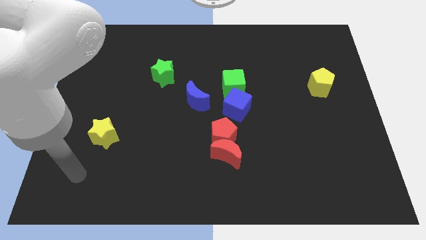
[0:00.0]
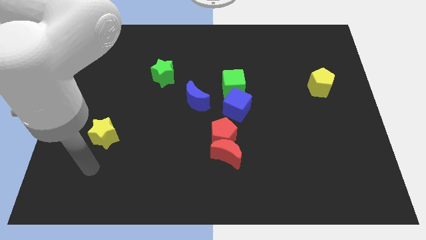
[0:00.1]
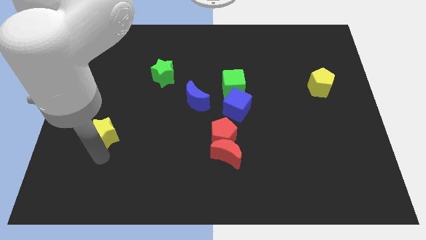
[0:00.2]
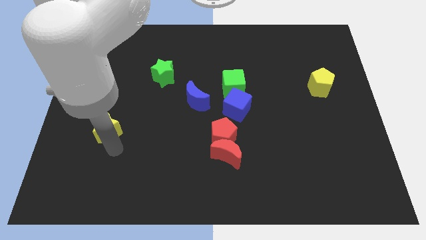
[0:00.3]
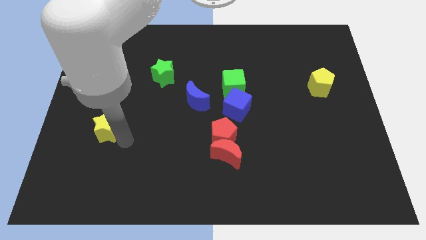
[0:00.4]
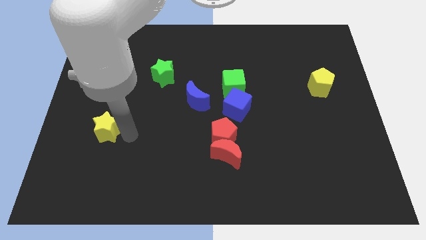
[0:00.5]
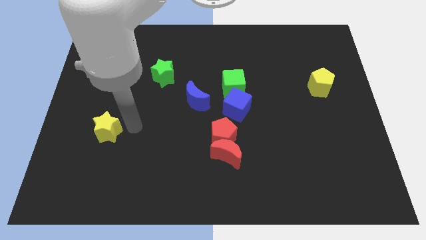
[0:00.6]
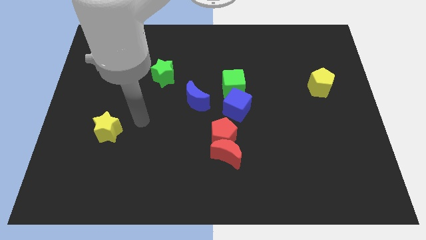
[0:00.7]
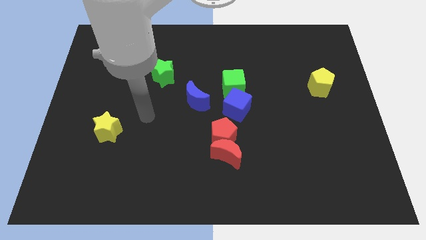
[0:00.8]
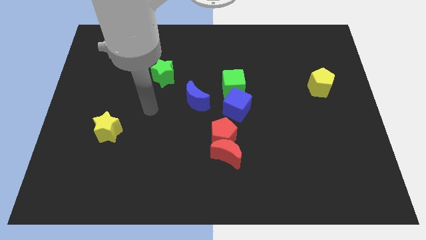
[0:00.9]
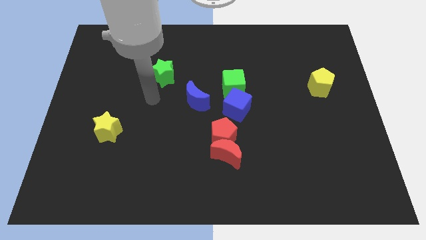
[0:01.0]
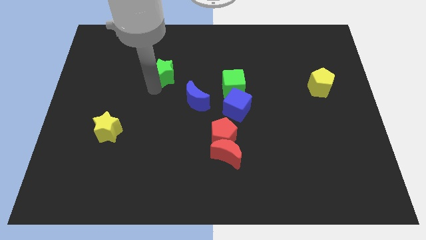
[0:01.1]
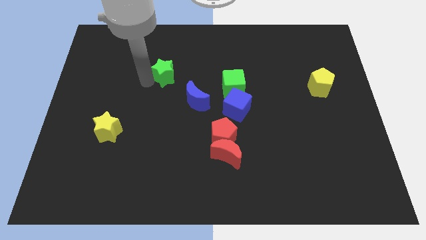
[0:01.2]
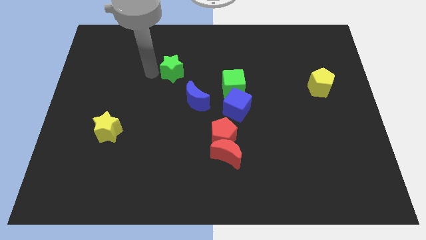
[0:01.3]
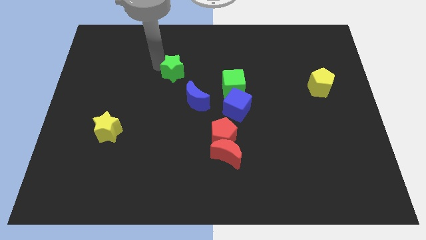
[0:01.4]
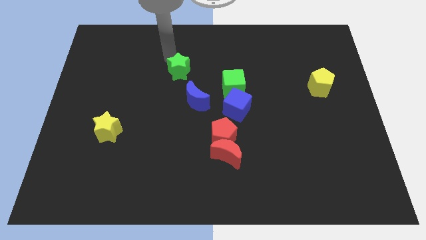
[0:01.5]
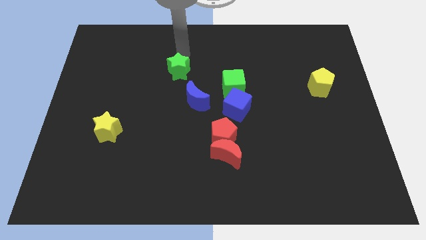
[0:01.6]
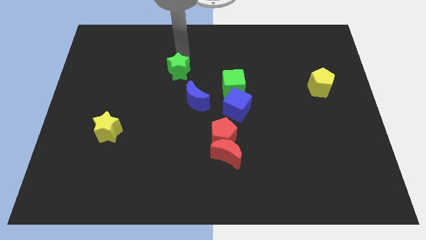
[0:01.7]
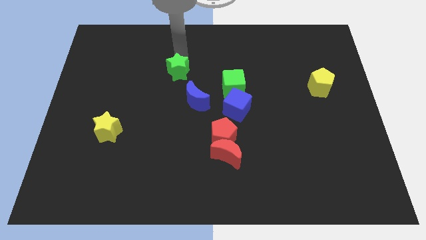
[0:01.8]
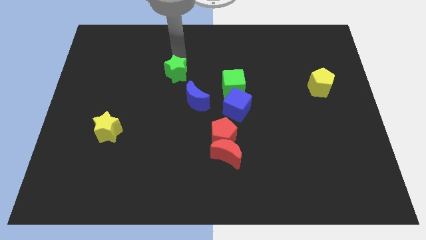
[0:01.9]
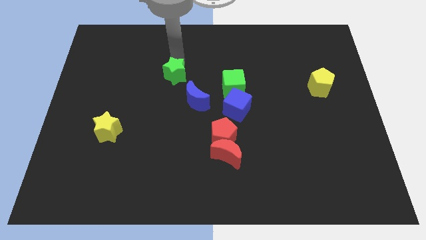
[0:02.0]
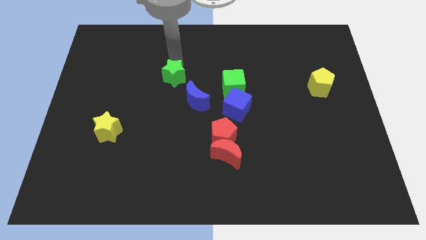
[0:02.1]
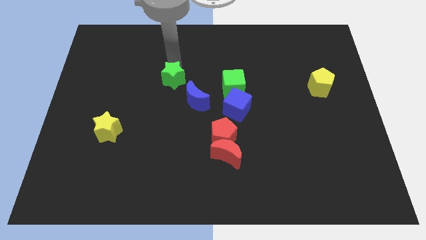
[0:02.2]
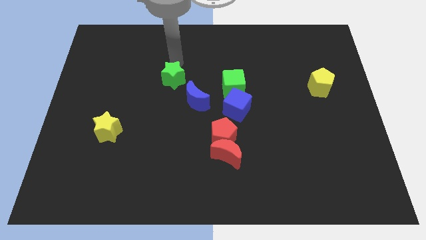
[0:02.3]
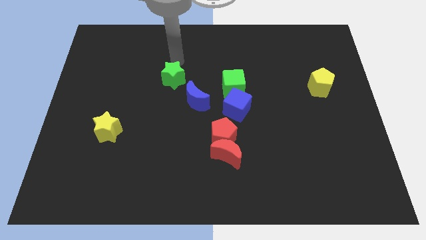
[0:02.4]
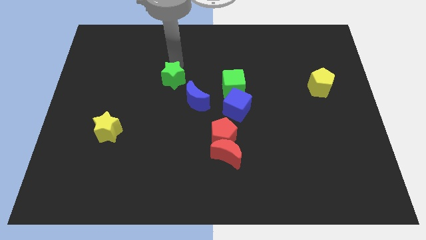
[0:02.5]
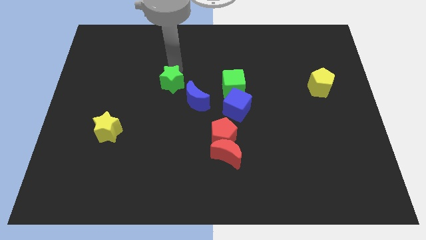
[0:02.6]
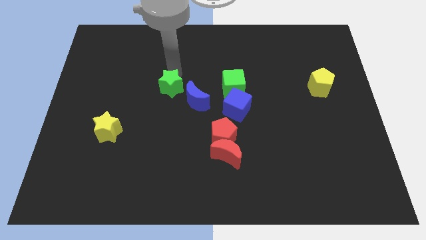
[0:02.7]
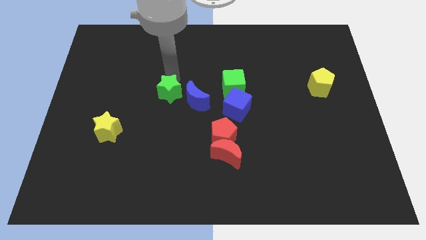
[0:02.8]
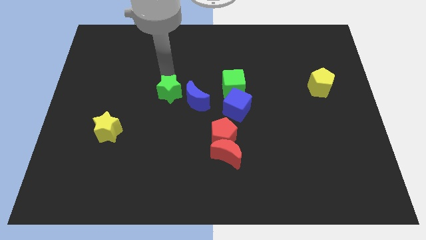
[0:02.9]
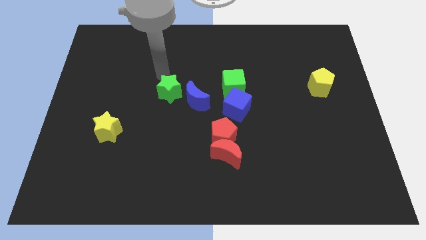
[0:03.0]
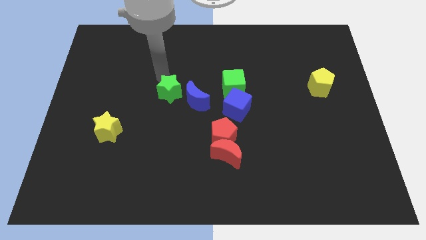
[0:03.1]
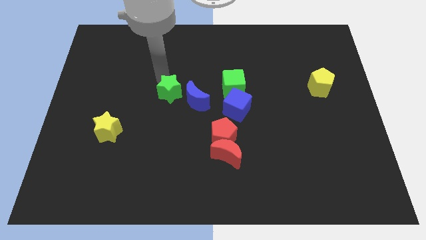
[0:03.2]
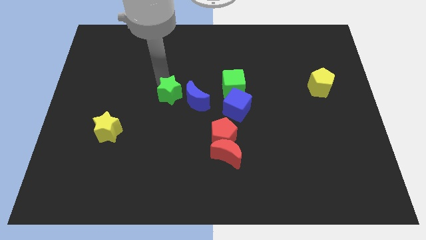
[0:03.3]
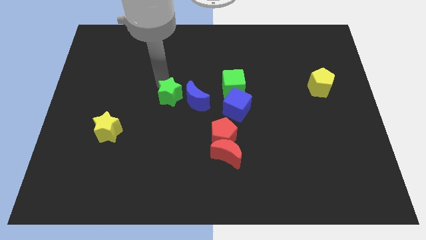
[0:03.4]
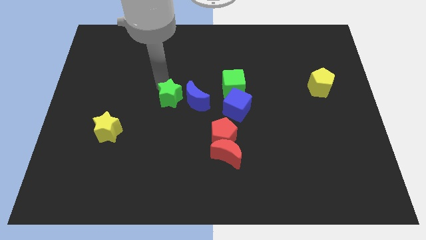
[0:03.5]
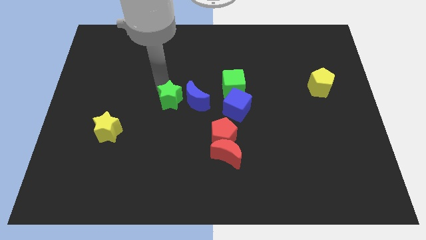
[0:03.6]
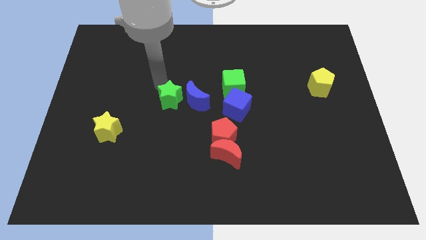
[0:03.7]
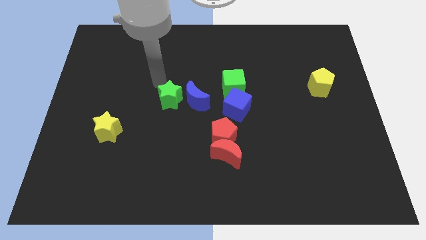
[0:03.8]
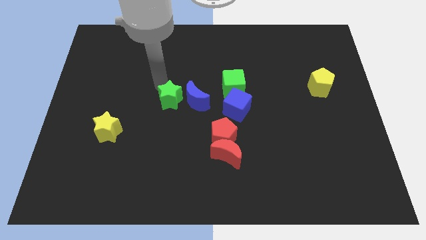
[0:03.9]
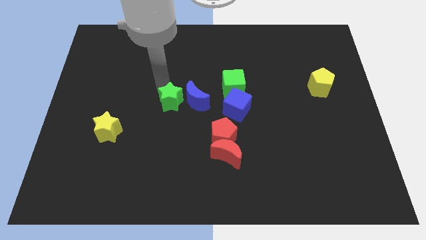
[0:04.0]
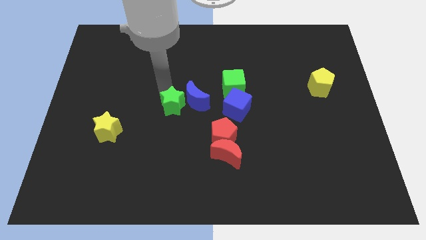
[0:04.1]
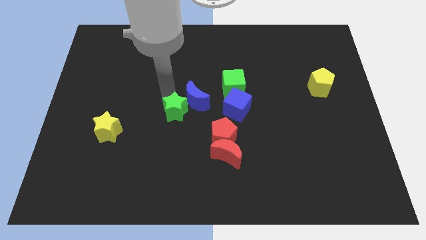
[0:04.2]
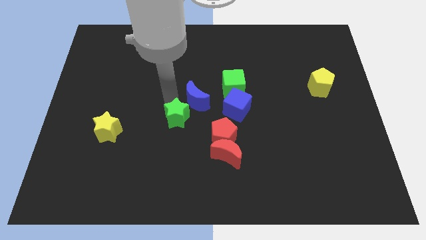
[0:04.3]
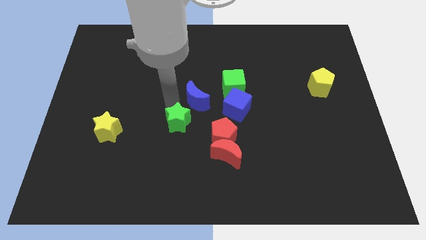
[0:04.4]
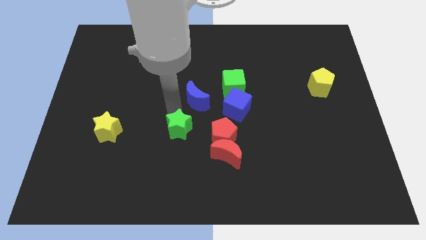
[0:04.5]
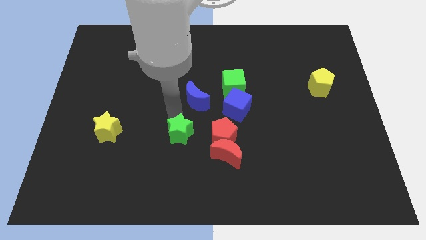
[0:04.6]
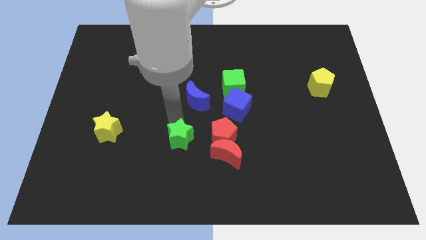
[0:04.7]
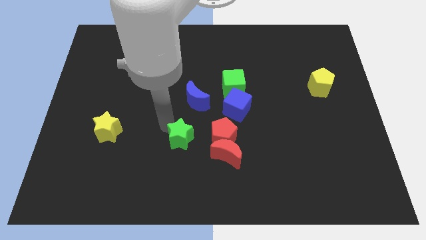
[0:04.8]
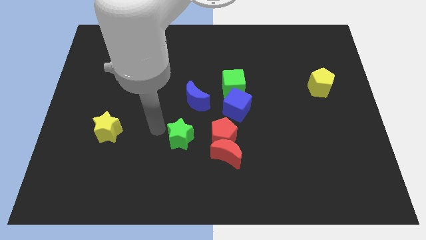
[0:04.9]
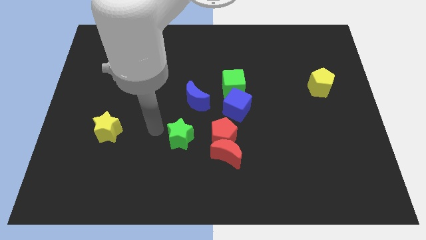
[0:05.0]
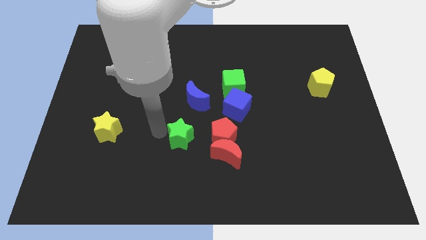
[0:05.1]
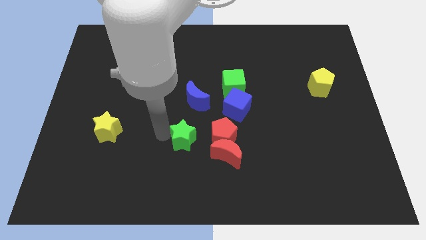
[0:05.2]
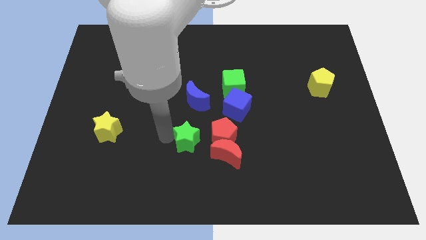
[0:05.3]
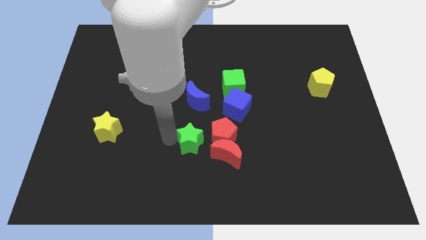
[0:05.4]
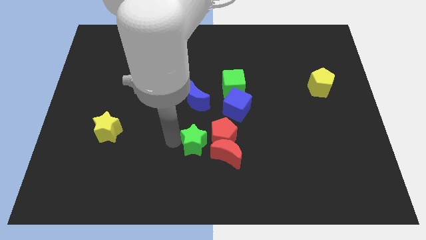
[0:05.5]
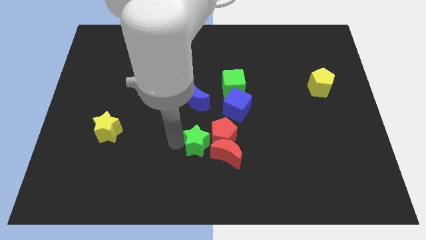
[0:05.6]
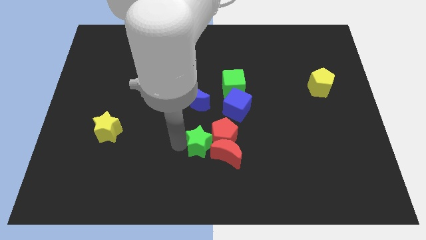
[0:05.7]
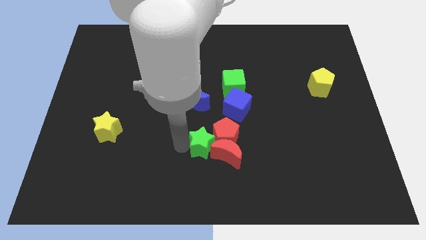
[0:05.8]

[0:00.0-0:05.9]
push the green star to the red moon

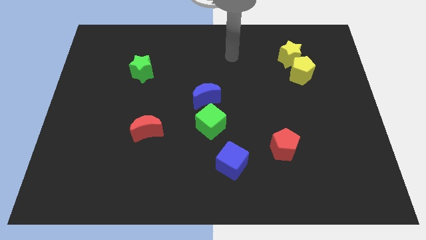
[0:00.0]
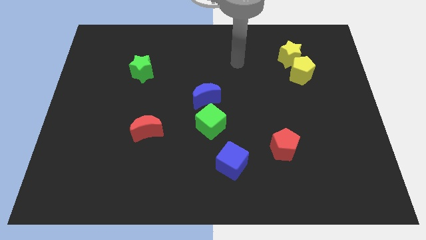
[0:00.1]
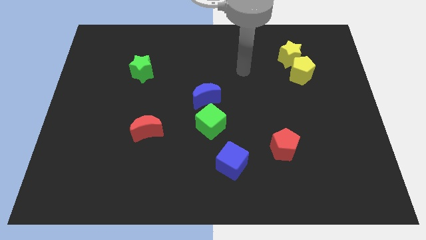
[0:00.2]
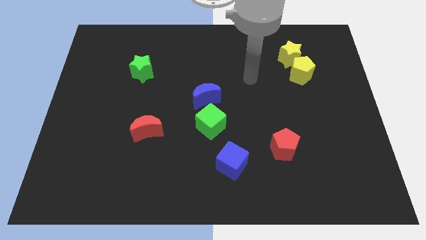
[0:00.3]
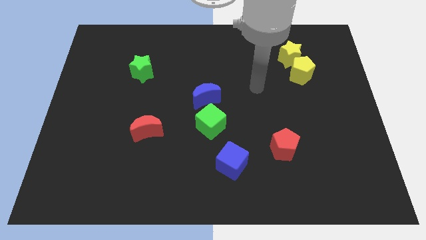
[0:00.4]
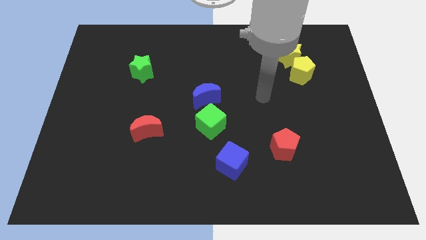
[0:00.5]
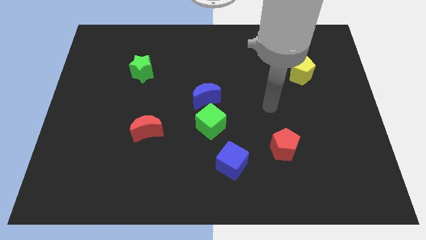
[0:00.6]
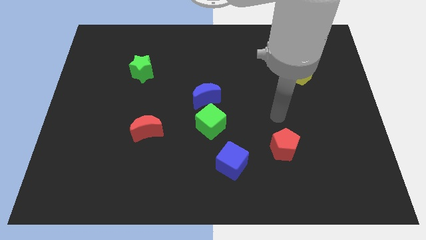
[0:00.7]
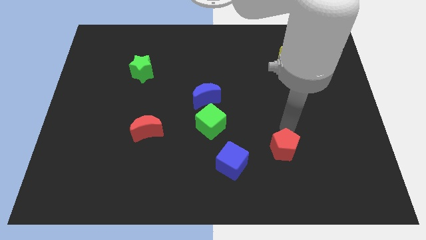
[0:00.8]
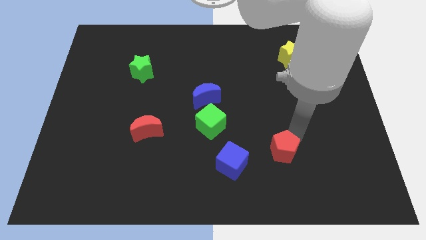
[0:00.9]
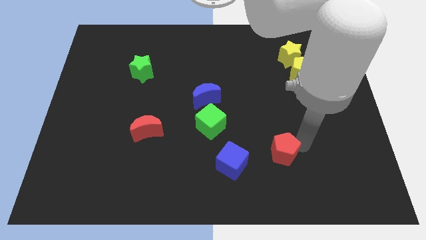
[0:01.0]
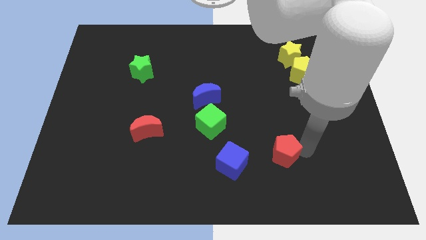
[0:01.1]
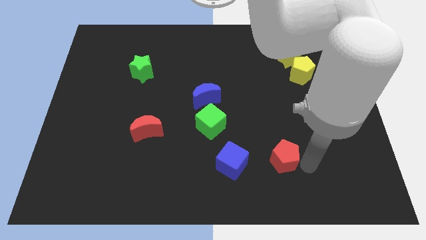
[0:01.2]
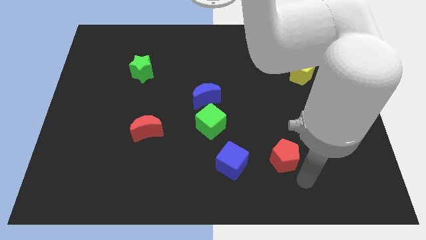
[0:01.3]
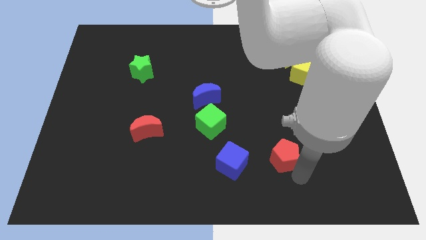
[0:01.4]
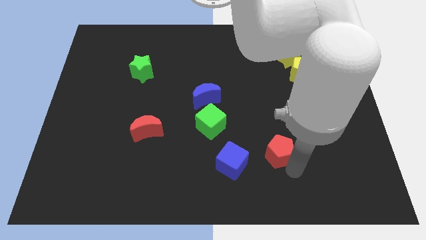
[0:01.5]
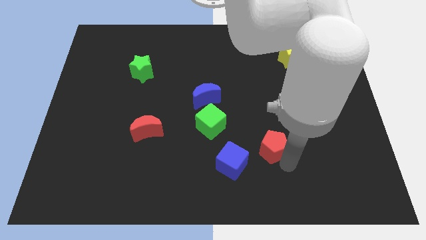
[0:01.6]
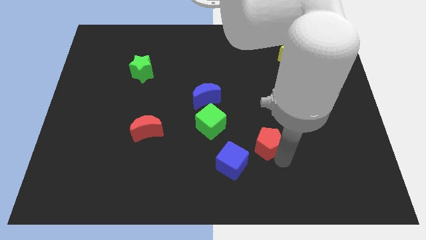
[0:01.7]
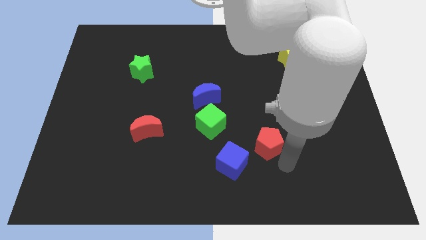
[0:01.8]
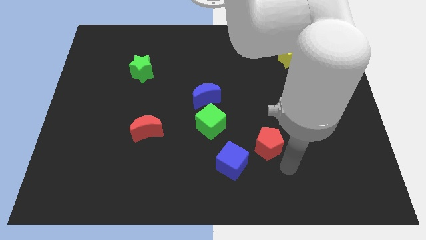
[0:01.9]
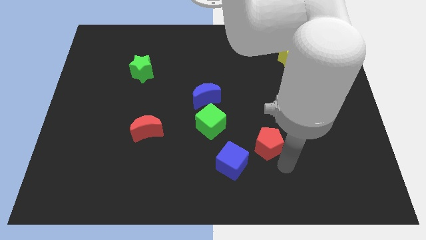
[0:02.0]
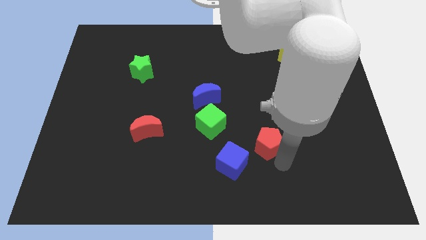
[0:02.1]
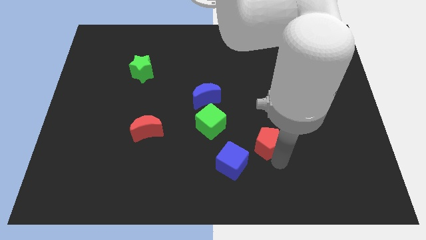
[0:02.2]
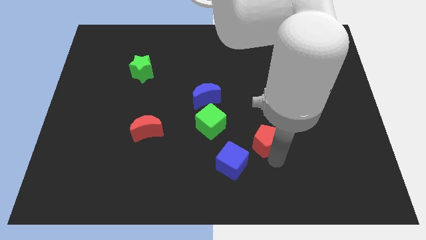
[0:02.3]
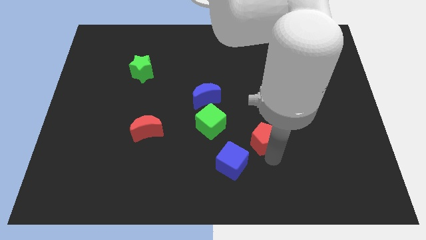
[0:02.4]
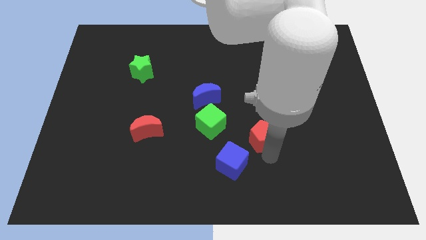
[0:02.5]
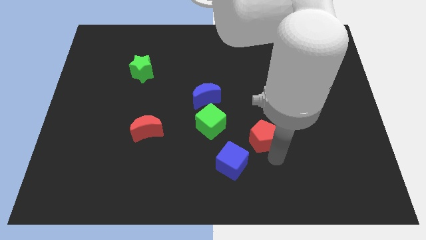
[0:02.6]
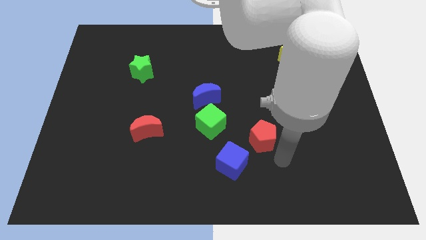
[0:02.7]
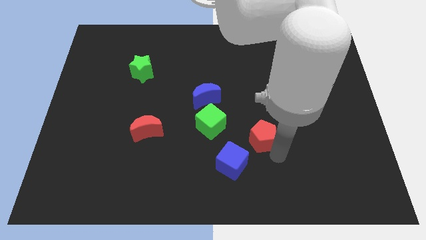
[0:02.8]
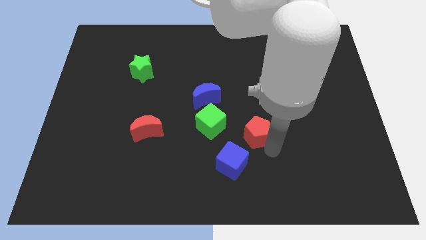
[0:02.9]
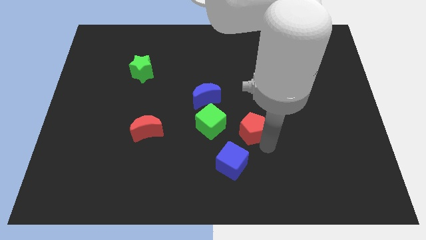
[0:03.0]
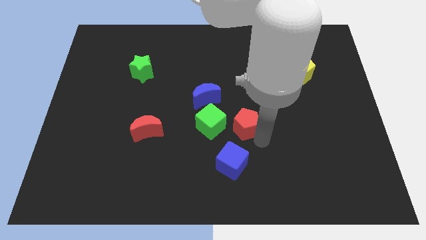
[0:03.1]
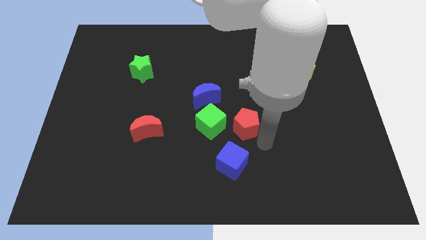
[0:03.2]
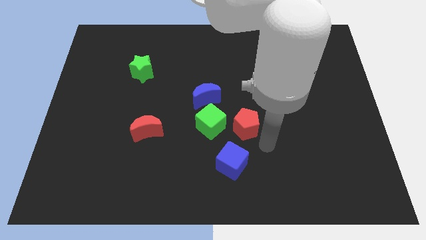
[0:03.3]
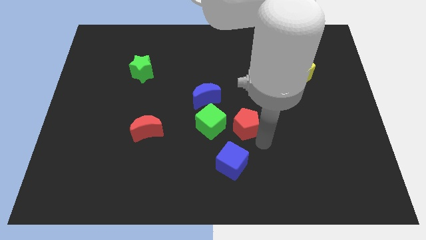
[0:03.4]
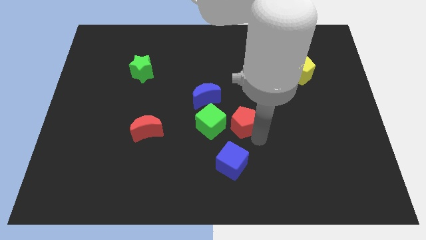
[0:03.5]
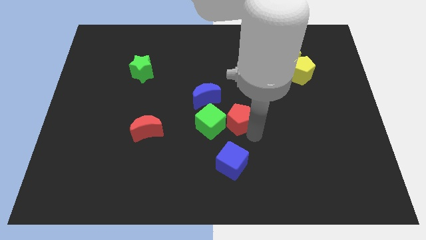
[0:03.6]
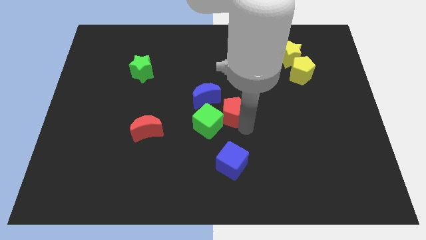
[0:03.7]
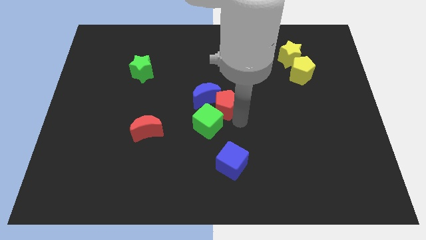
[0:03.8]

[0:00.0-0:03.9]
push the red pentagon towards the blue moon
